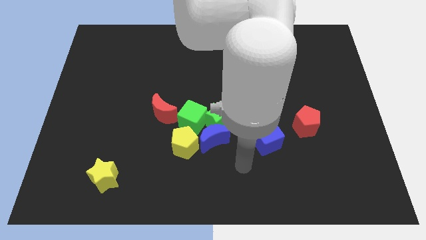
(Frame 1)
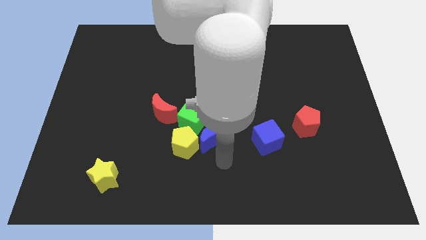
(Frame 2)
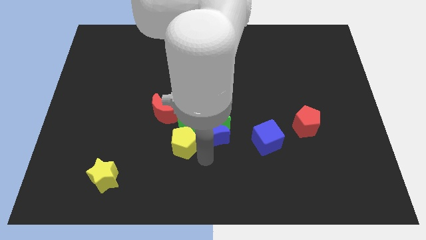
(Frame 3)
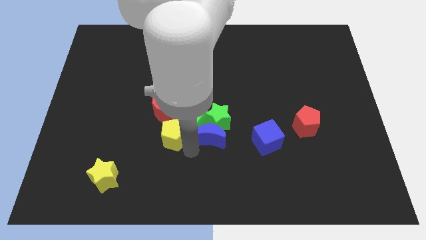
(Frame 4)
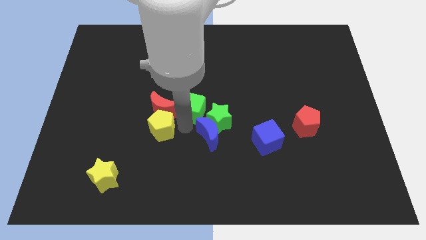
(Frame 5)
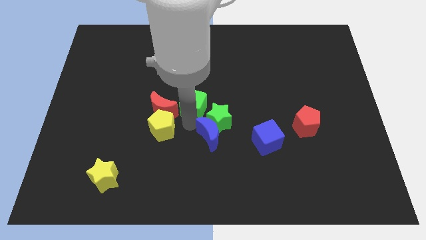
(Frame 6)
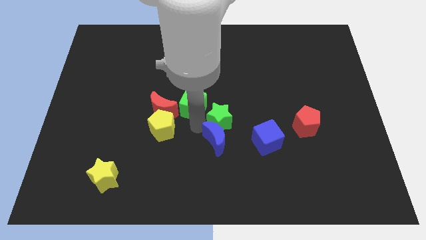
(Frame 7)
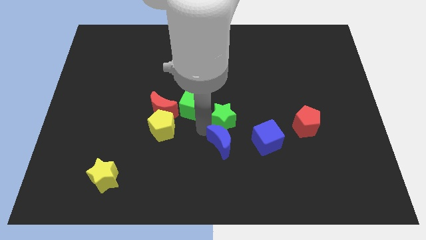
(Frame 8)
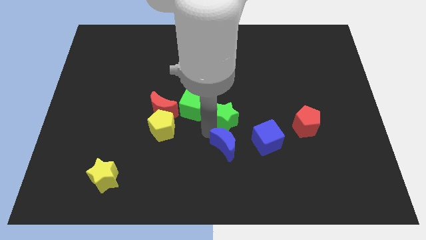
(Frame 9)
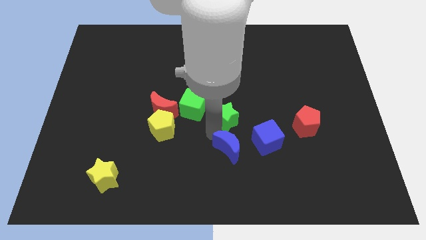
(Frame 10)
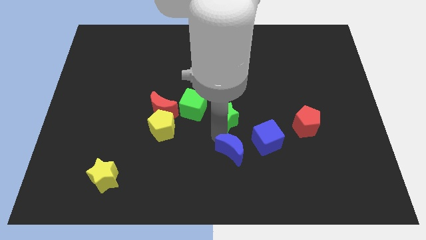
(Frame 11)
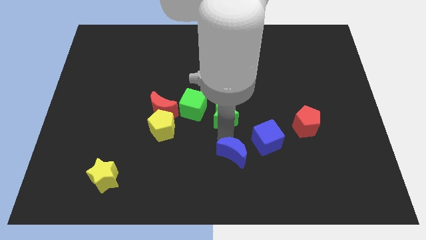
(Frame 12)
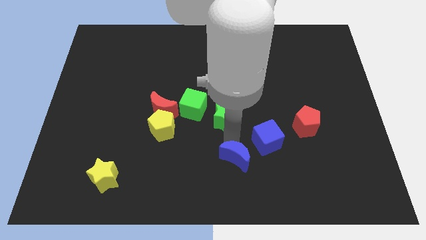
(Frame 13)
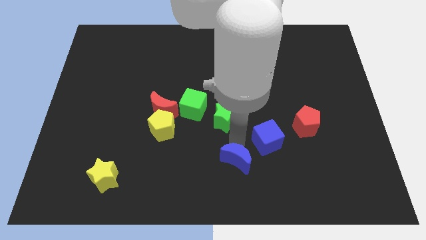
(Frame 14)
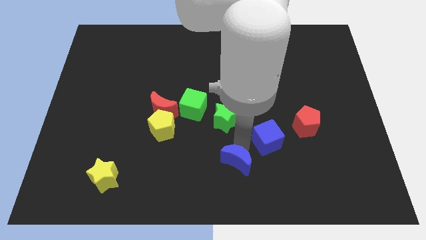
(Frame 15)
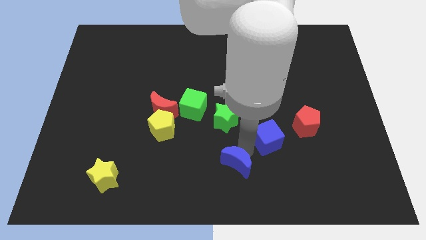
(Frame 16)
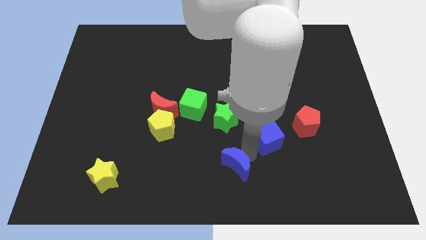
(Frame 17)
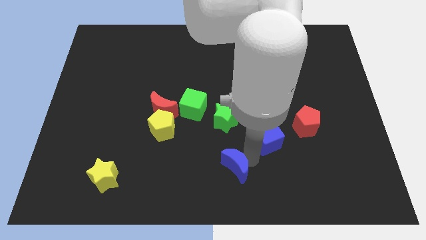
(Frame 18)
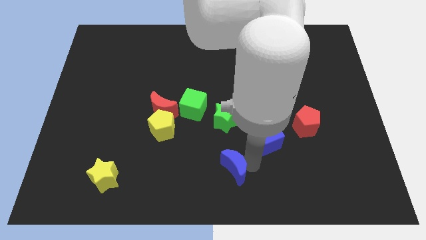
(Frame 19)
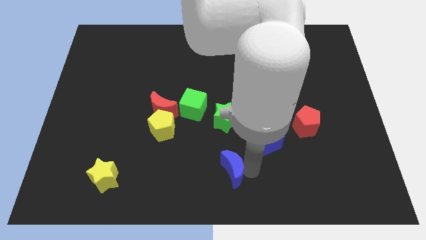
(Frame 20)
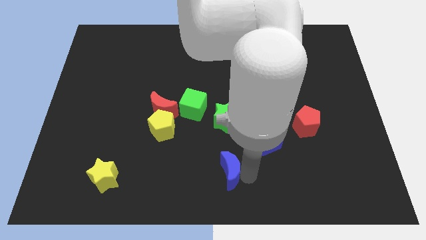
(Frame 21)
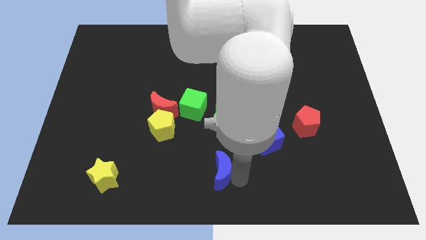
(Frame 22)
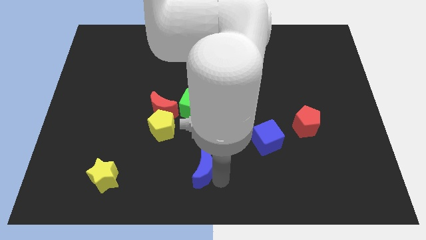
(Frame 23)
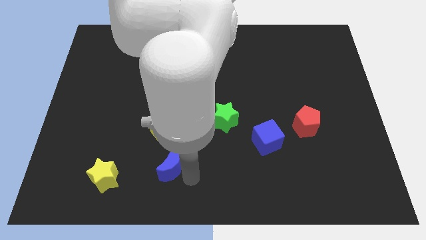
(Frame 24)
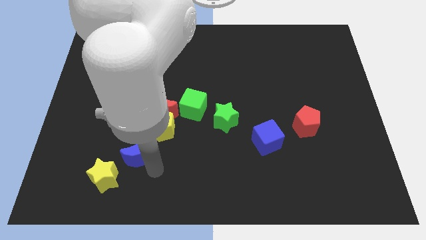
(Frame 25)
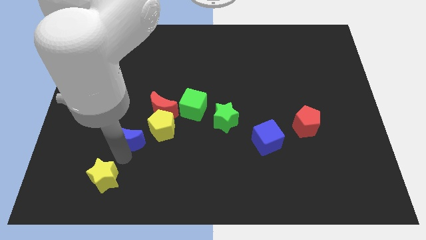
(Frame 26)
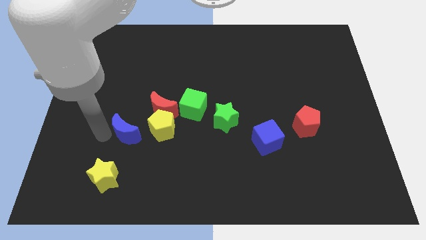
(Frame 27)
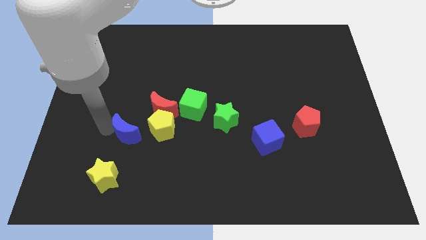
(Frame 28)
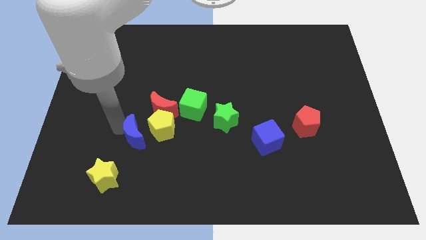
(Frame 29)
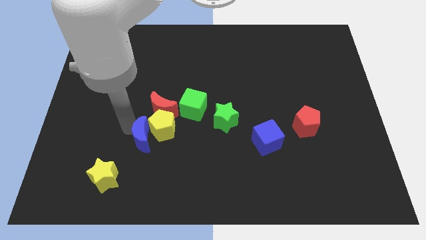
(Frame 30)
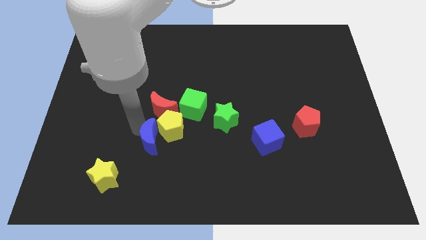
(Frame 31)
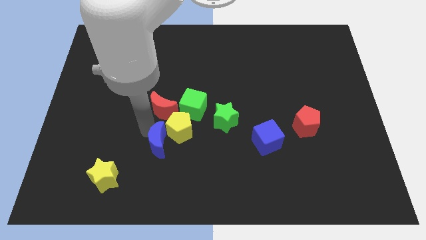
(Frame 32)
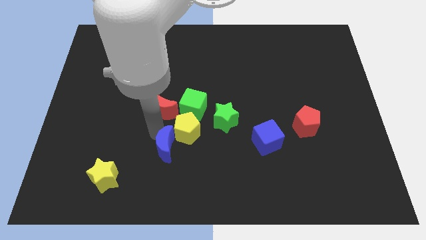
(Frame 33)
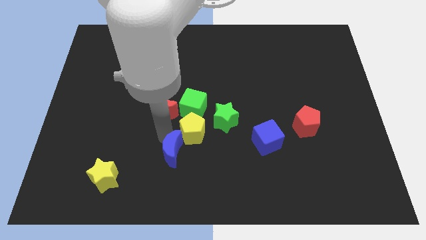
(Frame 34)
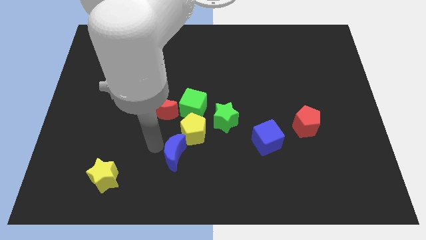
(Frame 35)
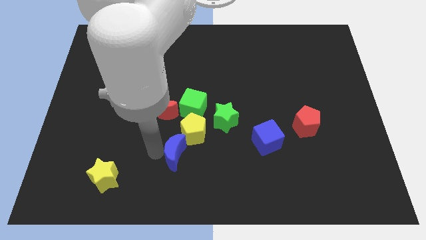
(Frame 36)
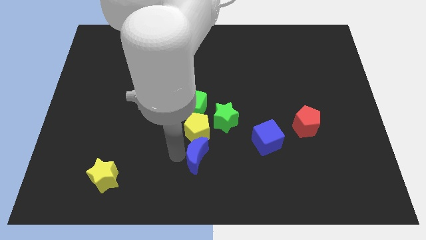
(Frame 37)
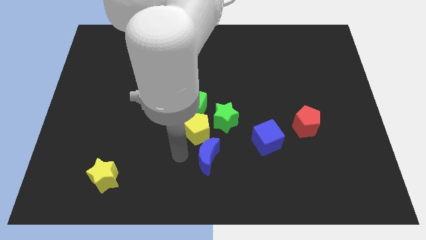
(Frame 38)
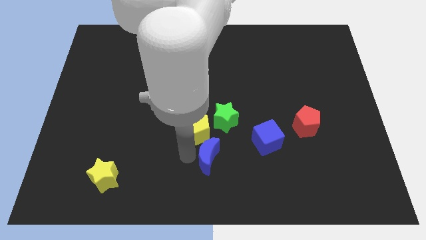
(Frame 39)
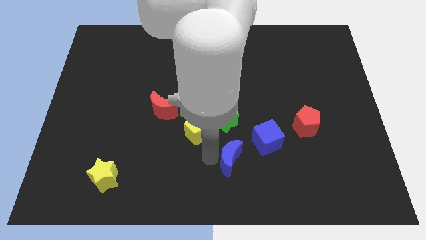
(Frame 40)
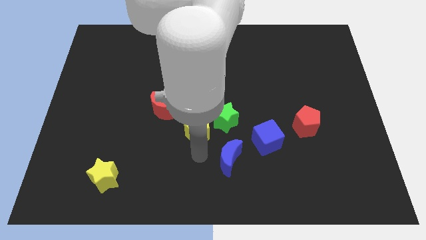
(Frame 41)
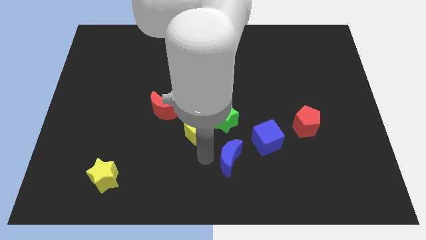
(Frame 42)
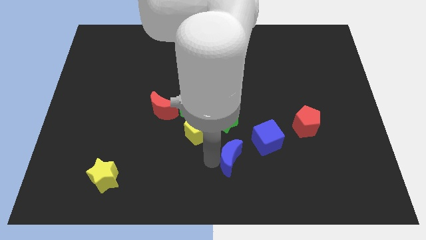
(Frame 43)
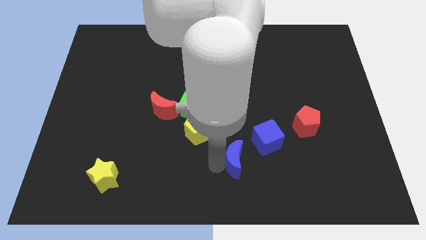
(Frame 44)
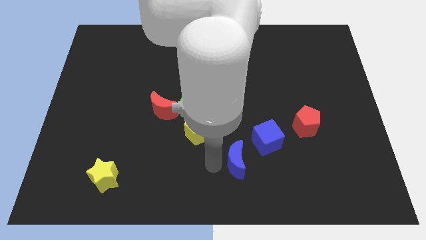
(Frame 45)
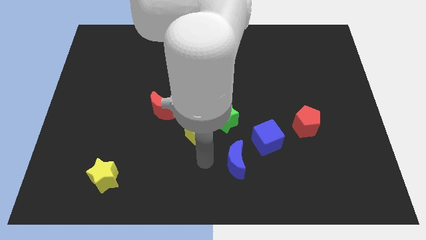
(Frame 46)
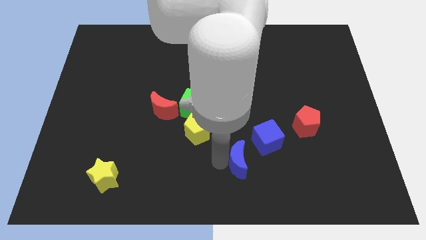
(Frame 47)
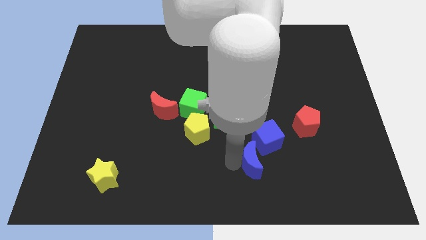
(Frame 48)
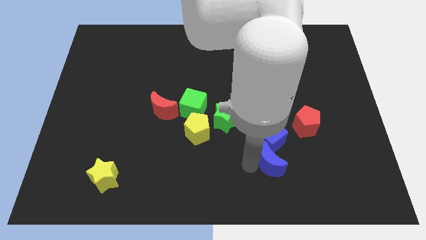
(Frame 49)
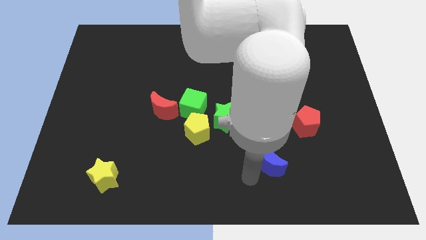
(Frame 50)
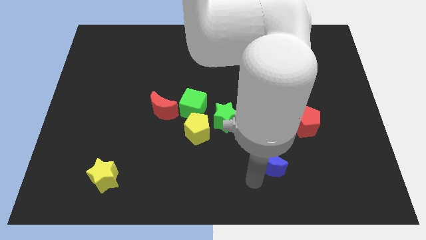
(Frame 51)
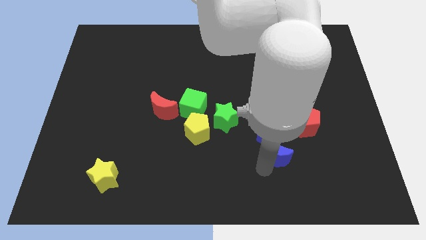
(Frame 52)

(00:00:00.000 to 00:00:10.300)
slide the blue moon to the bottom left side of the red pentagon

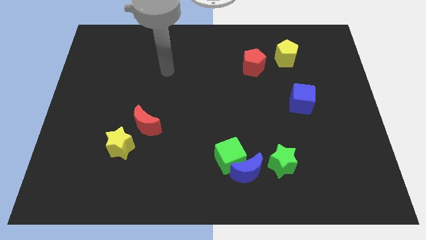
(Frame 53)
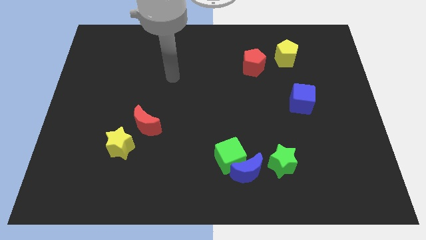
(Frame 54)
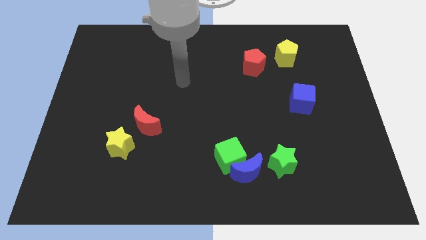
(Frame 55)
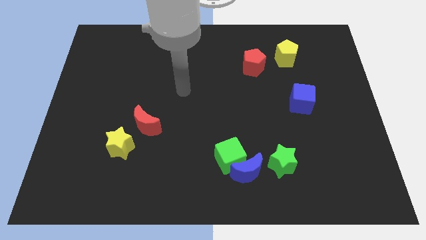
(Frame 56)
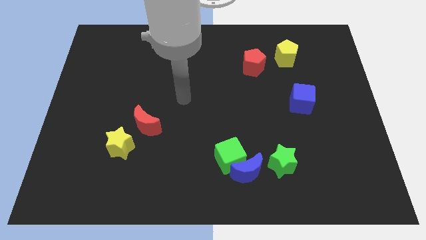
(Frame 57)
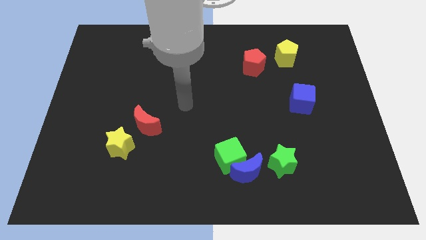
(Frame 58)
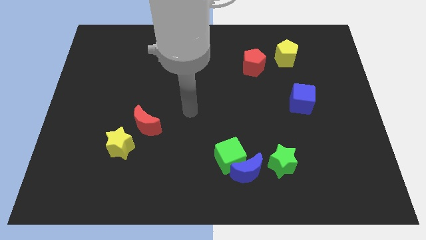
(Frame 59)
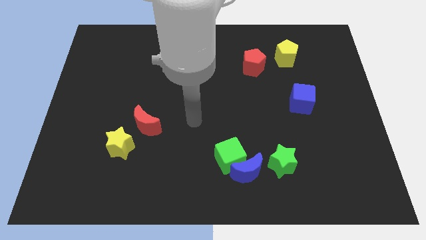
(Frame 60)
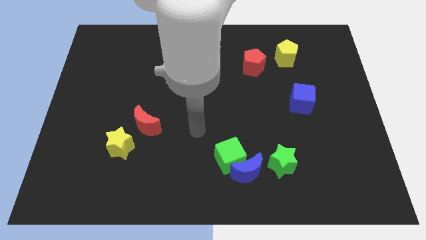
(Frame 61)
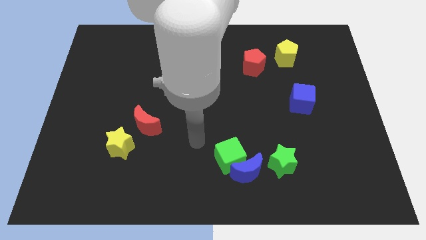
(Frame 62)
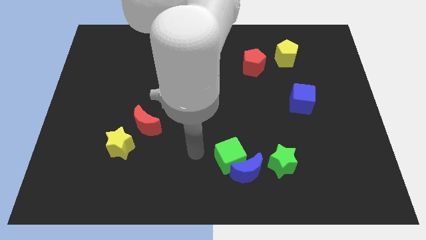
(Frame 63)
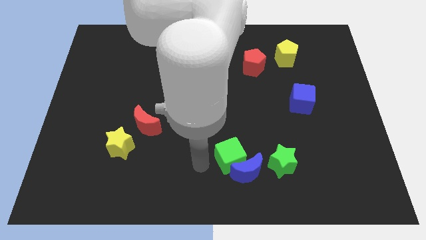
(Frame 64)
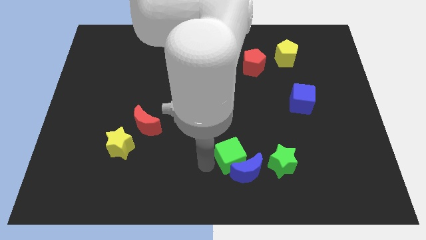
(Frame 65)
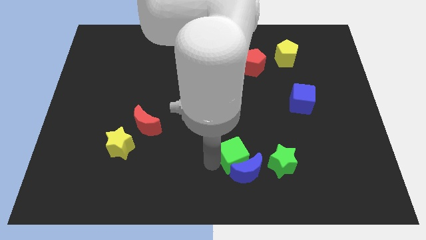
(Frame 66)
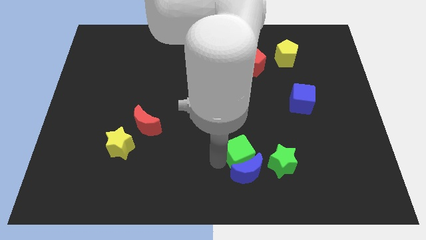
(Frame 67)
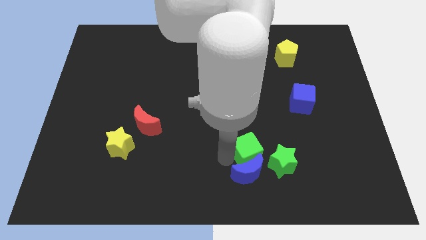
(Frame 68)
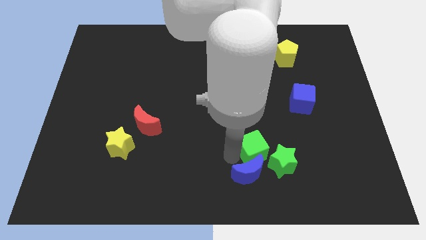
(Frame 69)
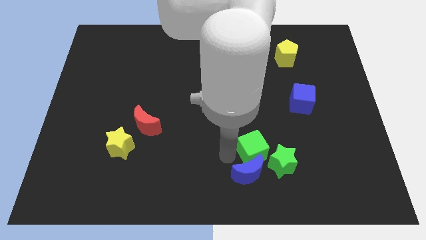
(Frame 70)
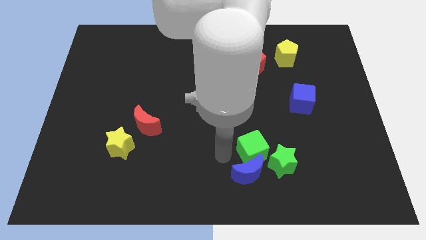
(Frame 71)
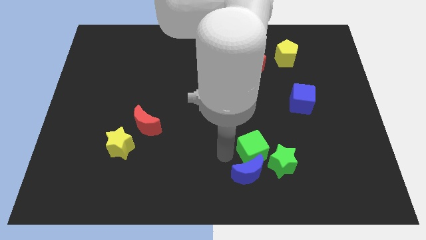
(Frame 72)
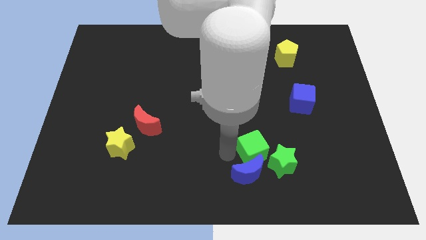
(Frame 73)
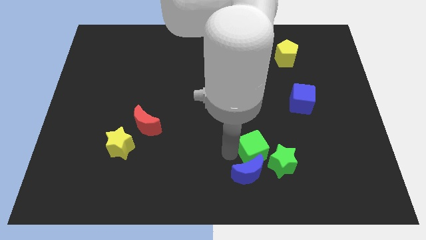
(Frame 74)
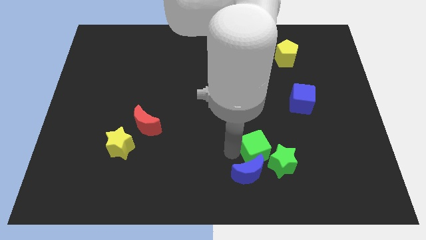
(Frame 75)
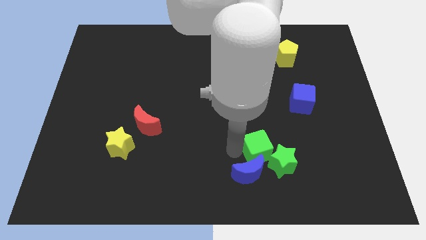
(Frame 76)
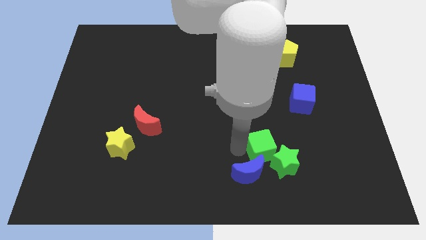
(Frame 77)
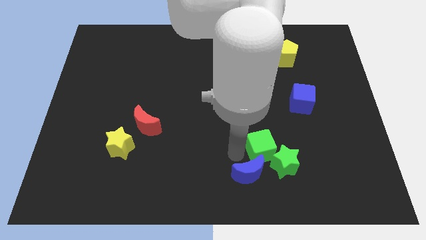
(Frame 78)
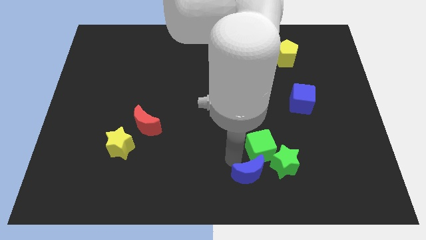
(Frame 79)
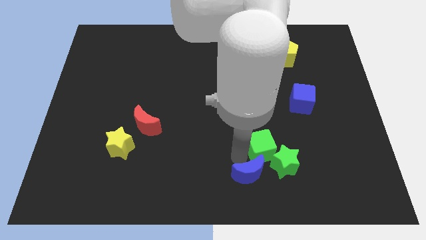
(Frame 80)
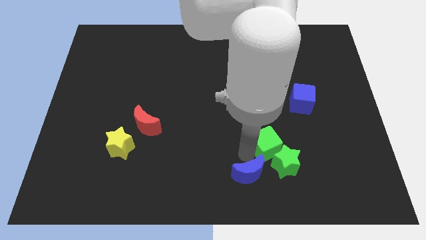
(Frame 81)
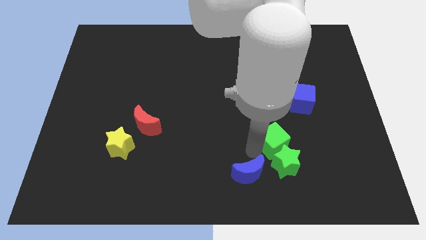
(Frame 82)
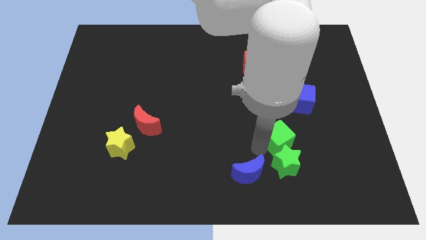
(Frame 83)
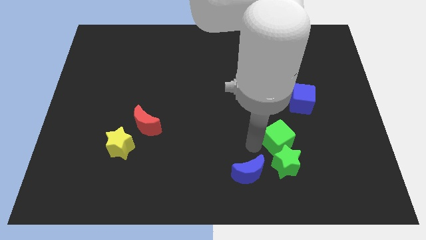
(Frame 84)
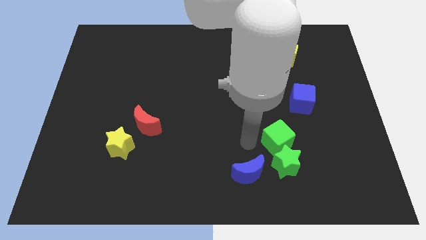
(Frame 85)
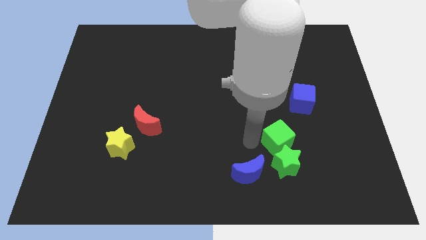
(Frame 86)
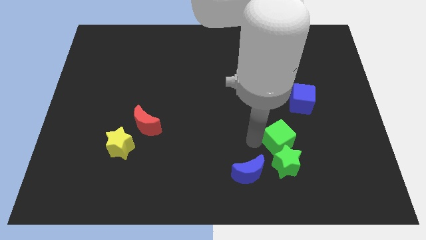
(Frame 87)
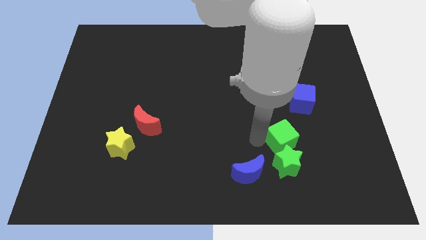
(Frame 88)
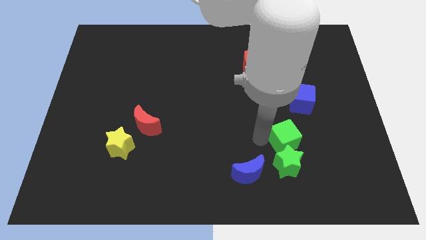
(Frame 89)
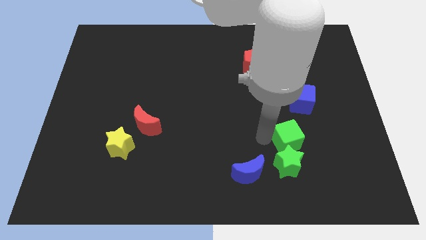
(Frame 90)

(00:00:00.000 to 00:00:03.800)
slide the green cube below the blue cube
